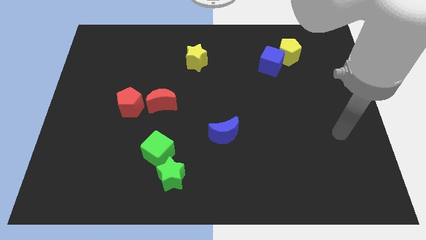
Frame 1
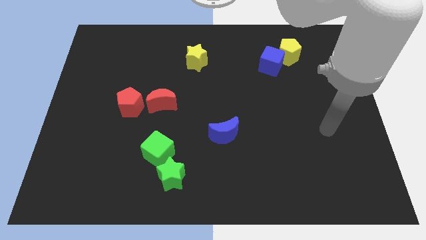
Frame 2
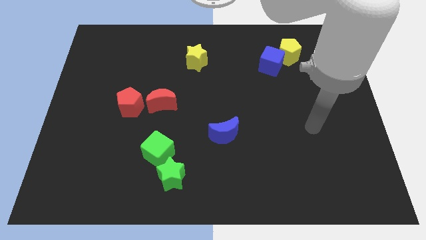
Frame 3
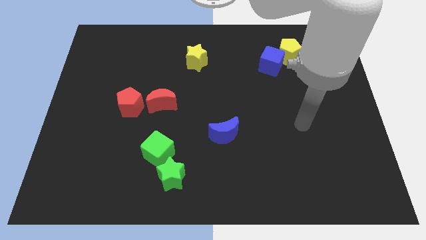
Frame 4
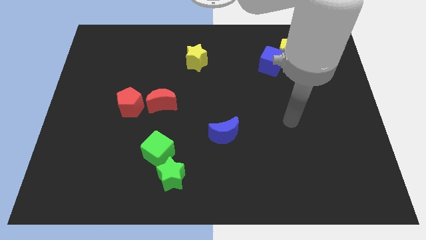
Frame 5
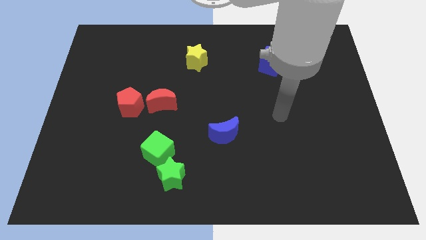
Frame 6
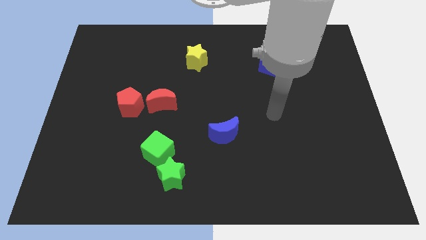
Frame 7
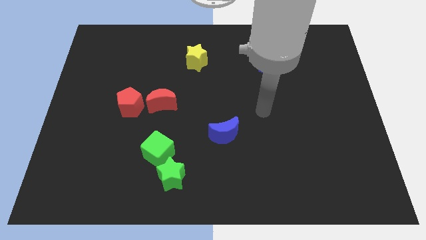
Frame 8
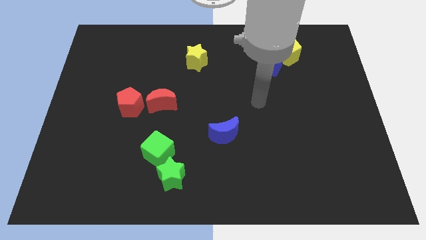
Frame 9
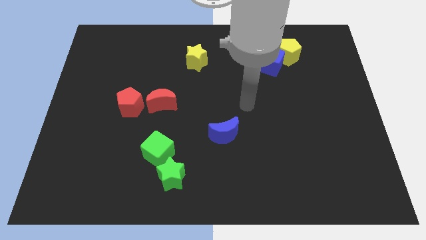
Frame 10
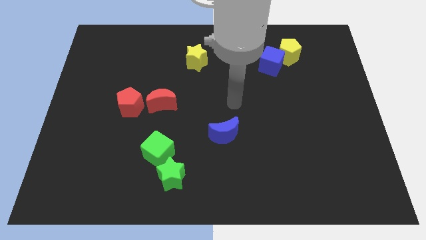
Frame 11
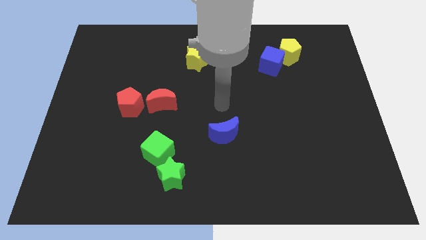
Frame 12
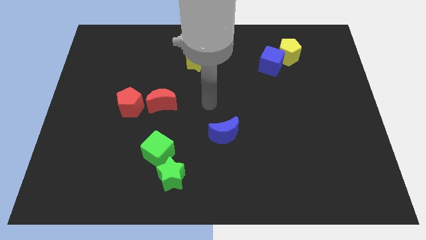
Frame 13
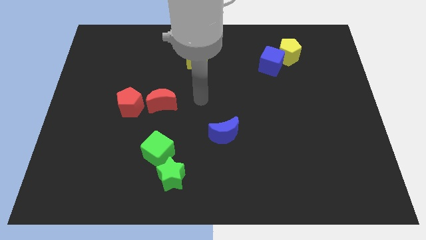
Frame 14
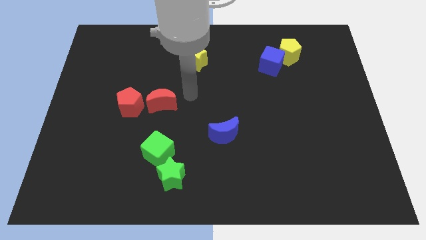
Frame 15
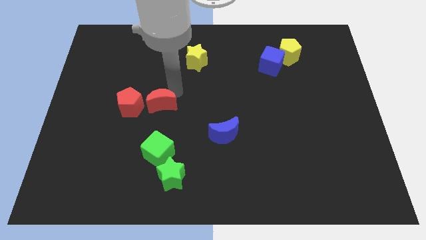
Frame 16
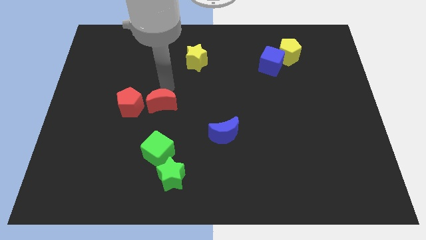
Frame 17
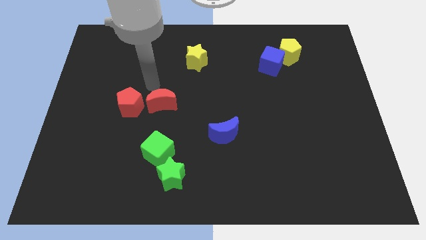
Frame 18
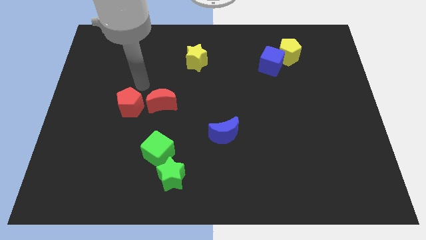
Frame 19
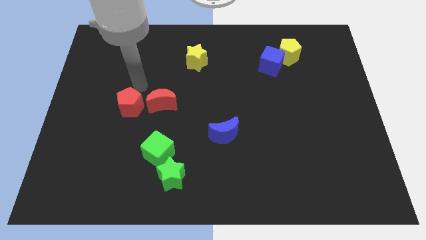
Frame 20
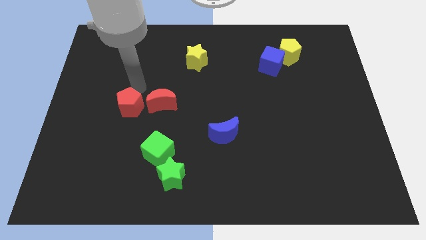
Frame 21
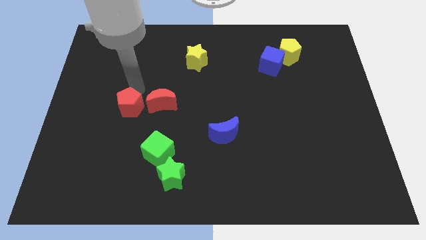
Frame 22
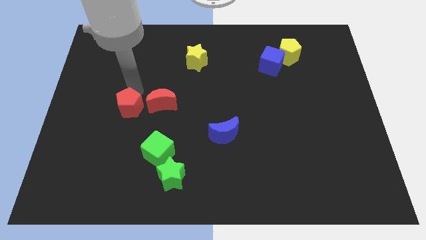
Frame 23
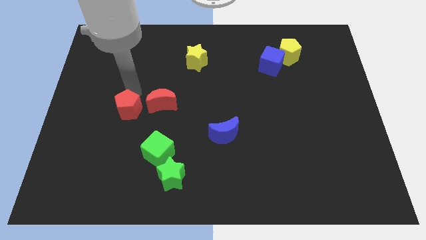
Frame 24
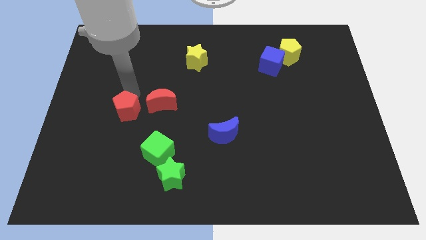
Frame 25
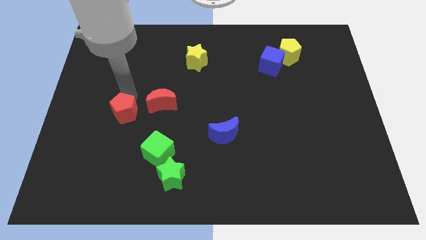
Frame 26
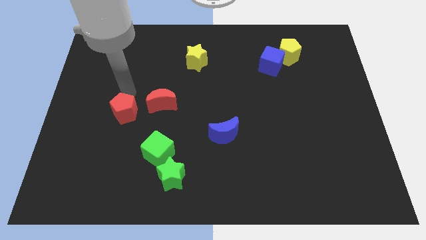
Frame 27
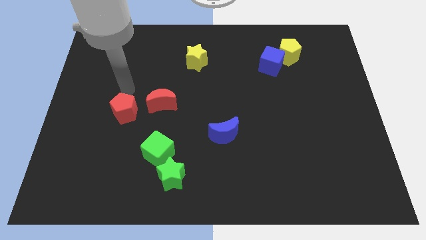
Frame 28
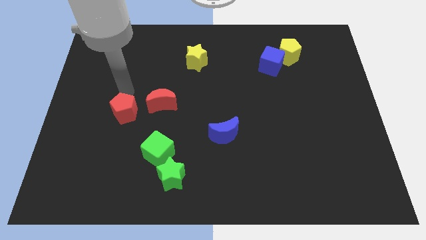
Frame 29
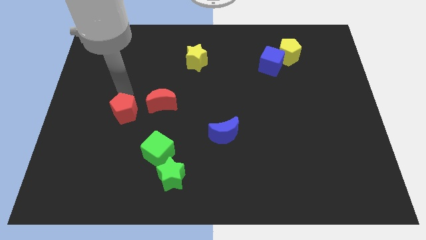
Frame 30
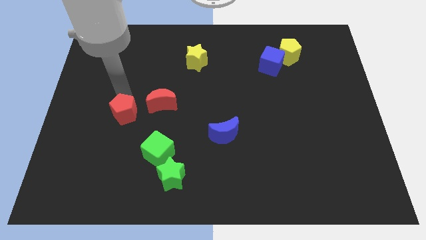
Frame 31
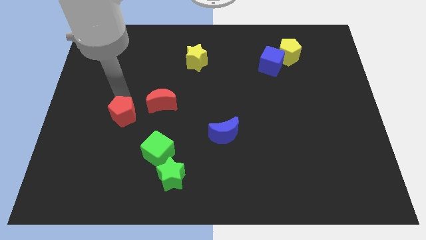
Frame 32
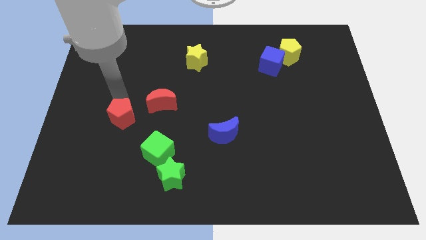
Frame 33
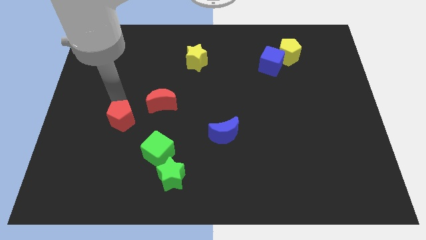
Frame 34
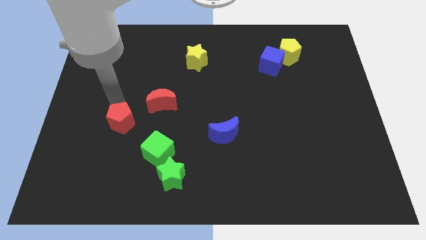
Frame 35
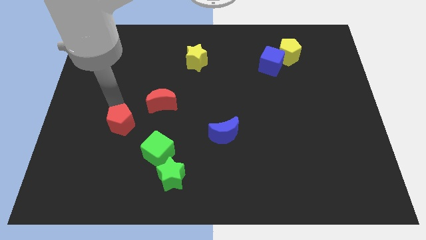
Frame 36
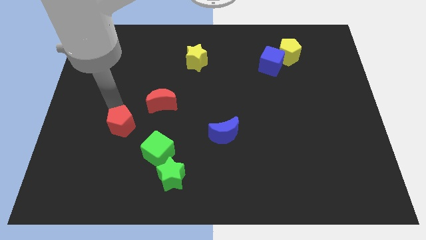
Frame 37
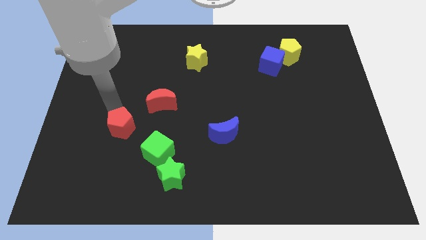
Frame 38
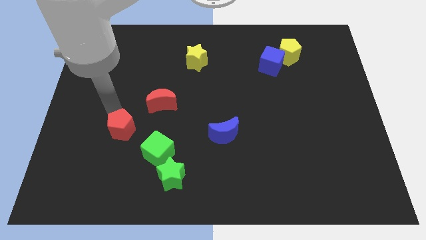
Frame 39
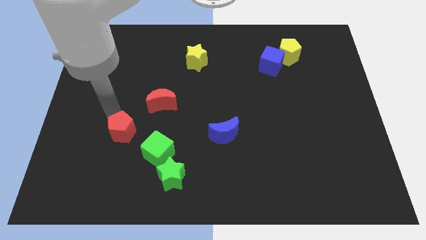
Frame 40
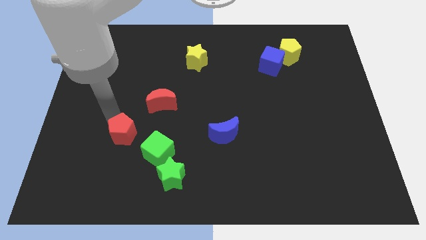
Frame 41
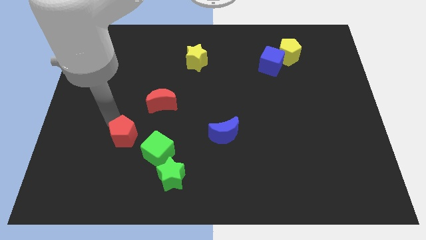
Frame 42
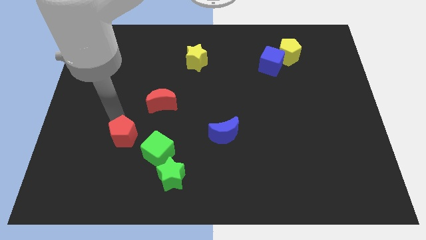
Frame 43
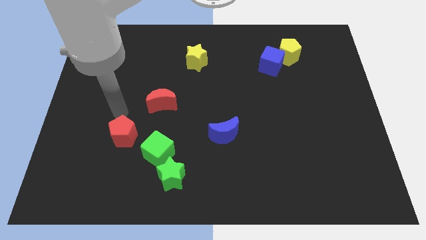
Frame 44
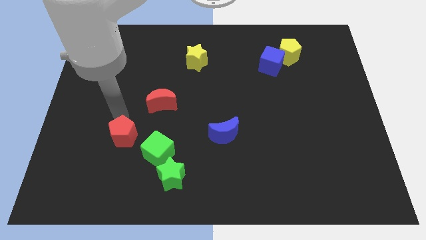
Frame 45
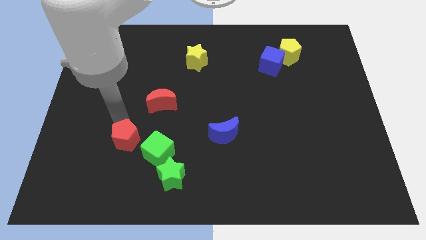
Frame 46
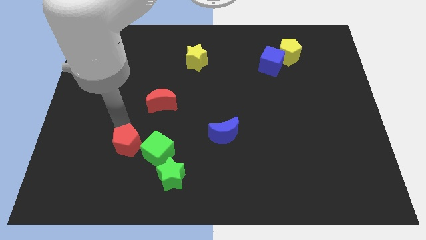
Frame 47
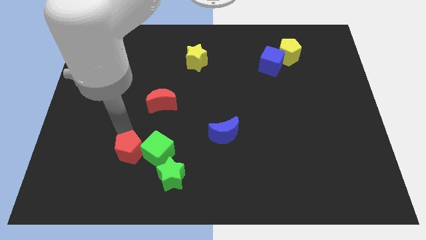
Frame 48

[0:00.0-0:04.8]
put the red pentagon diagonally down and to the left of the green cube

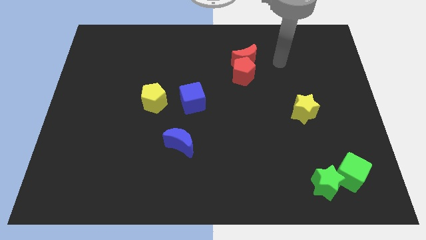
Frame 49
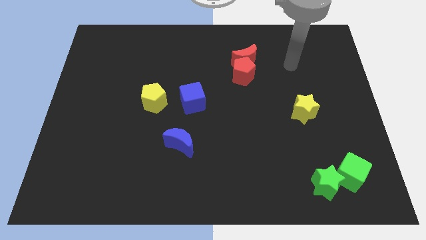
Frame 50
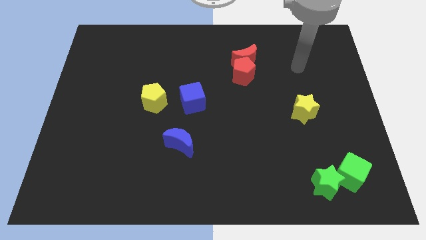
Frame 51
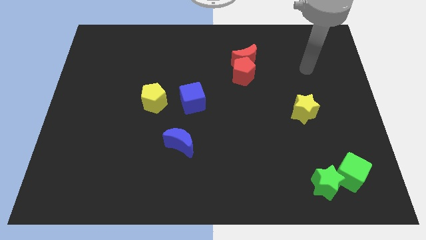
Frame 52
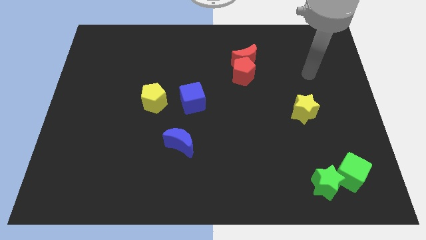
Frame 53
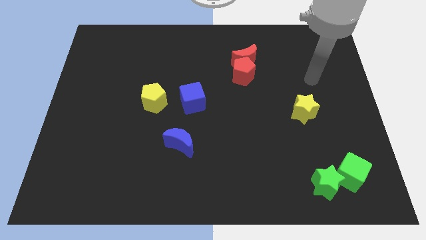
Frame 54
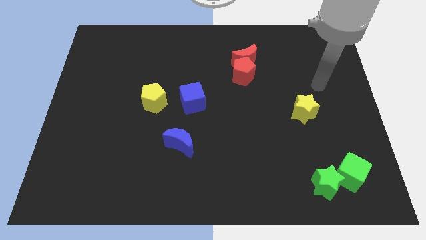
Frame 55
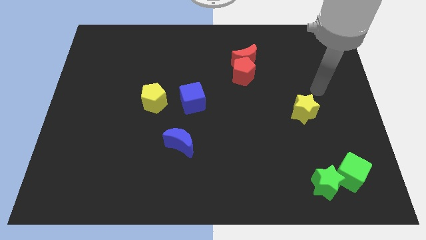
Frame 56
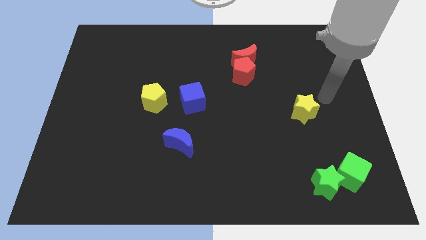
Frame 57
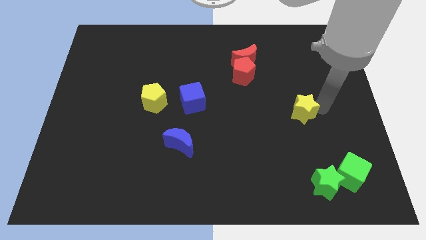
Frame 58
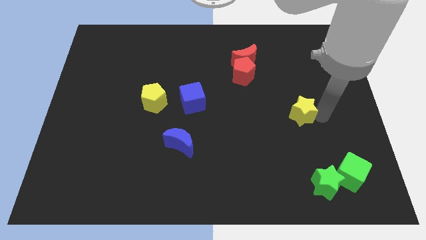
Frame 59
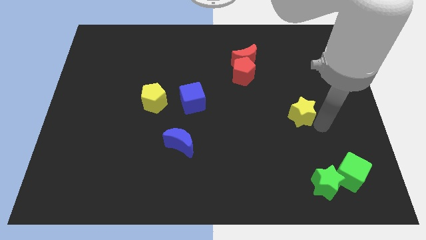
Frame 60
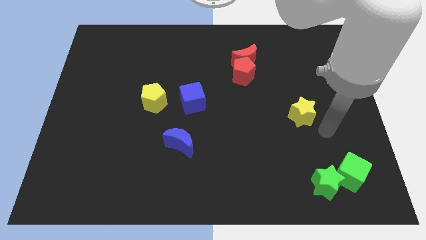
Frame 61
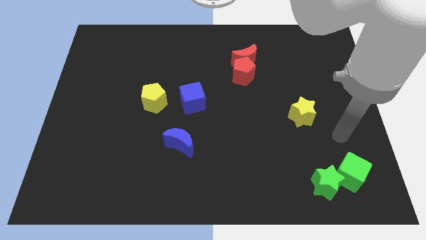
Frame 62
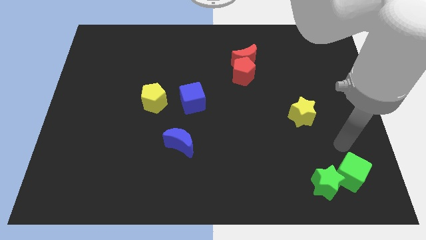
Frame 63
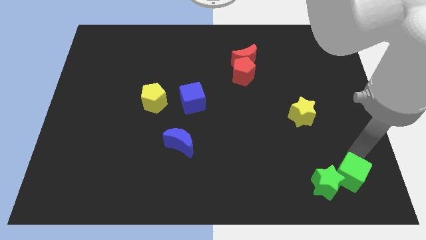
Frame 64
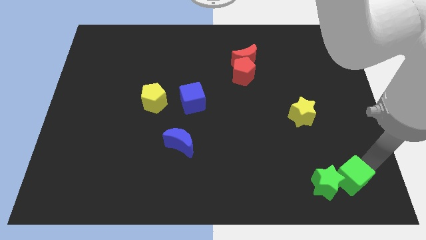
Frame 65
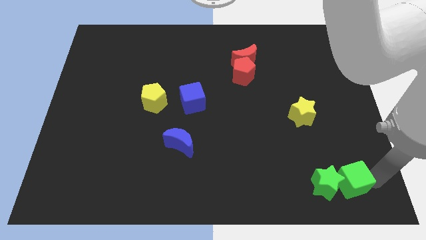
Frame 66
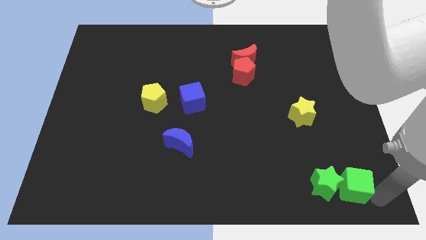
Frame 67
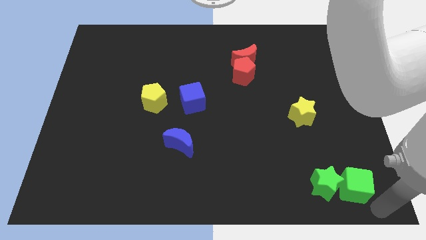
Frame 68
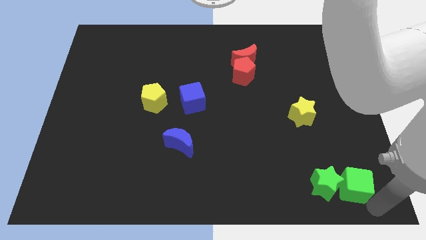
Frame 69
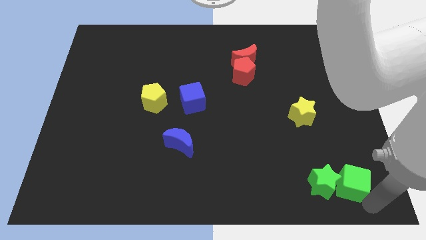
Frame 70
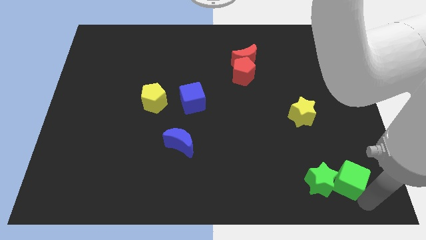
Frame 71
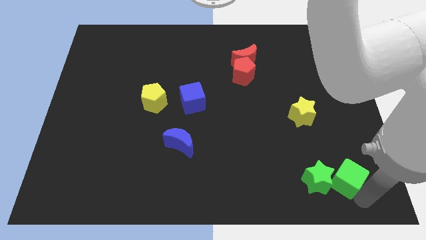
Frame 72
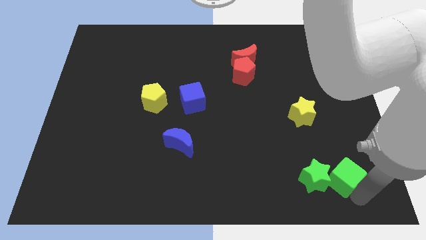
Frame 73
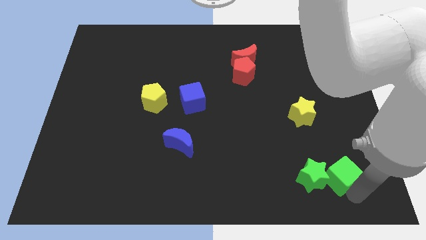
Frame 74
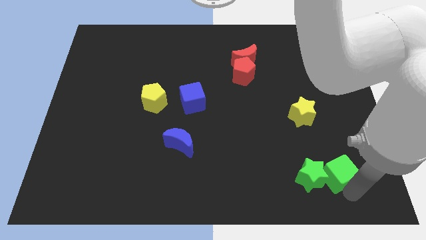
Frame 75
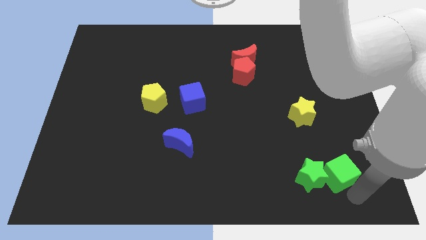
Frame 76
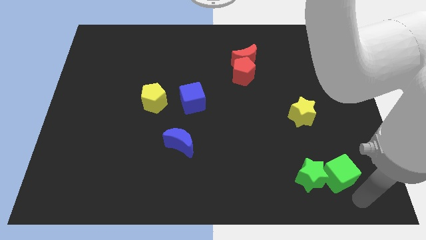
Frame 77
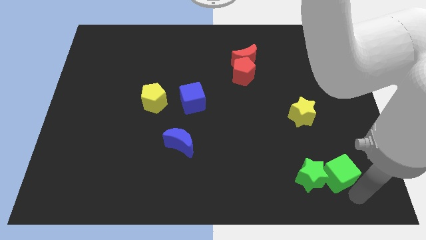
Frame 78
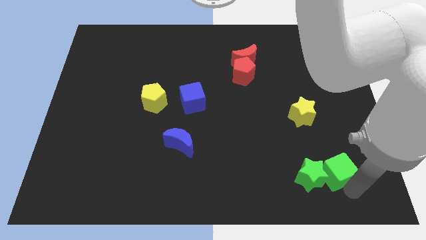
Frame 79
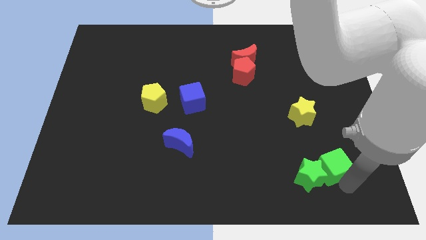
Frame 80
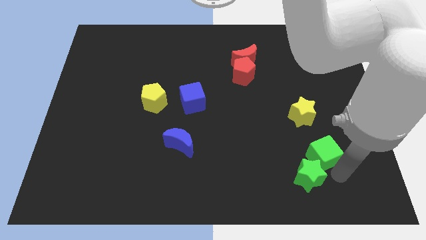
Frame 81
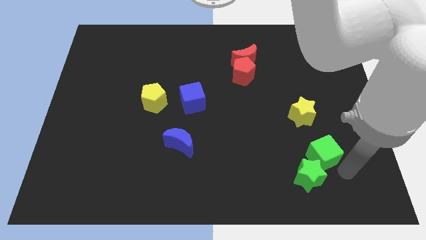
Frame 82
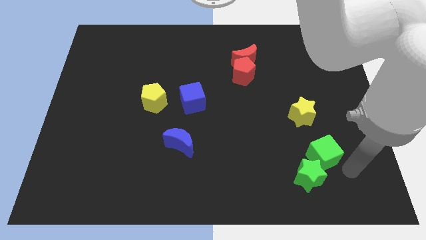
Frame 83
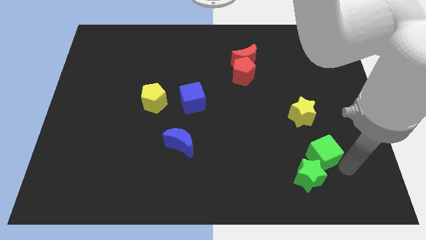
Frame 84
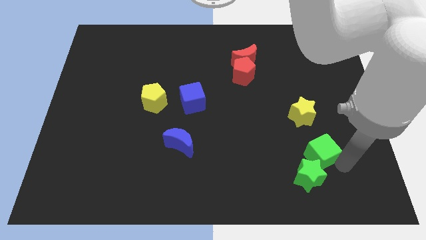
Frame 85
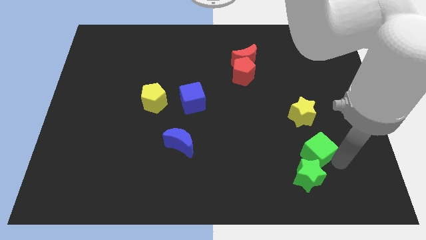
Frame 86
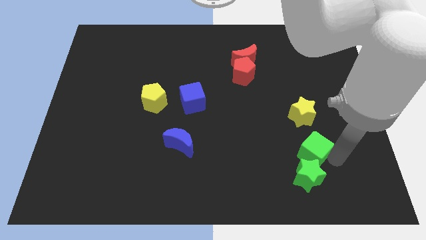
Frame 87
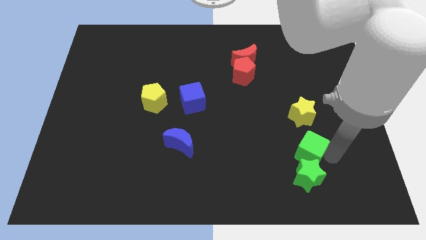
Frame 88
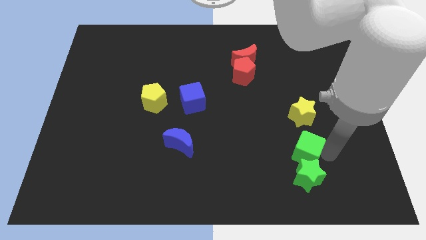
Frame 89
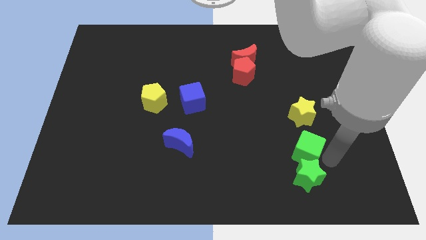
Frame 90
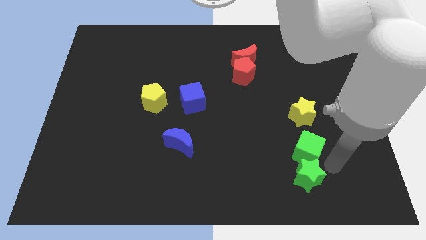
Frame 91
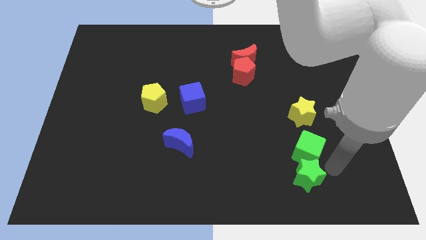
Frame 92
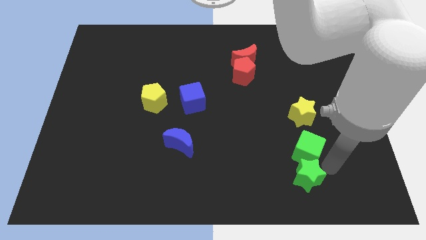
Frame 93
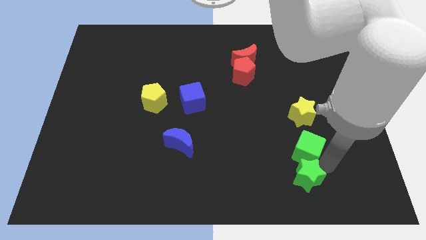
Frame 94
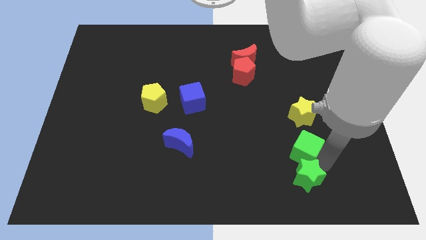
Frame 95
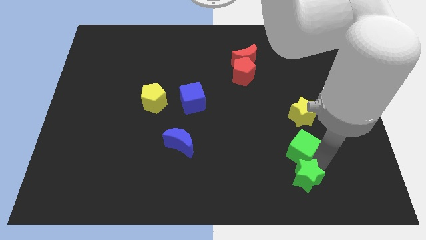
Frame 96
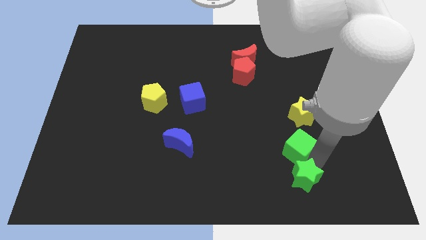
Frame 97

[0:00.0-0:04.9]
slide the green cube to the bottom left of the yellow star
